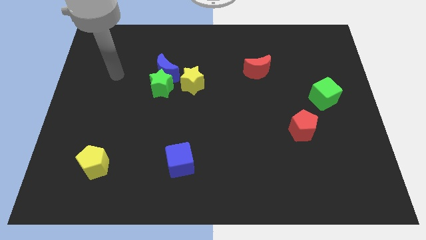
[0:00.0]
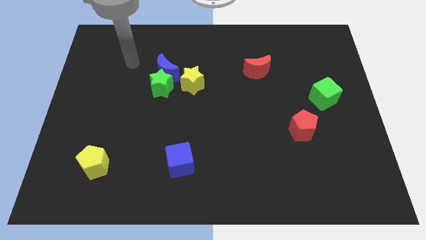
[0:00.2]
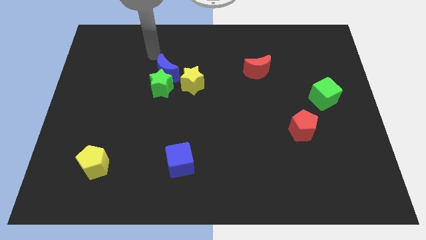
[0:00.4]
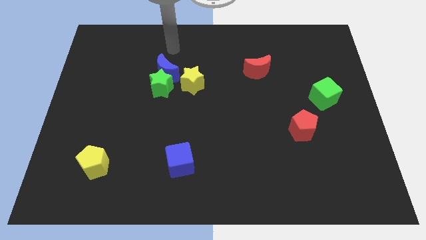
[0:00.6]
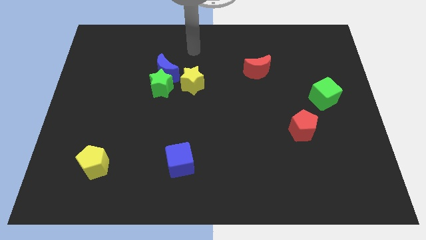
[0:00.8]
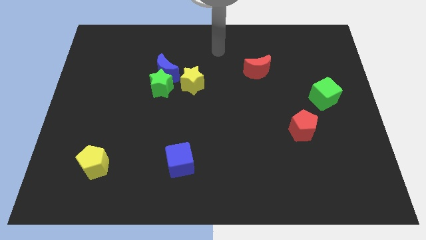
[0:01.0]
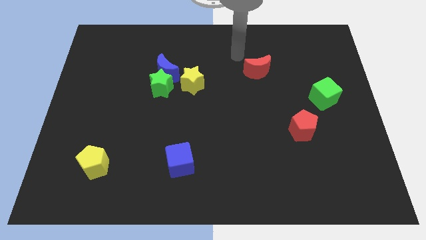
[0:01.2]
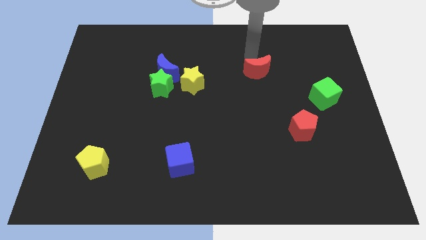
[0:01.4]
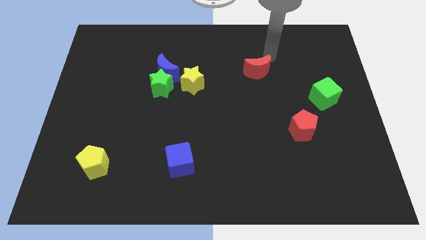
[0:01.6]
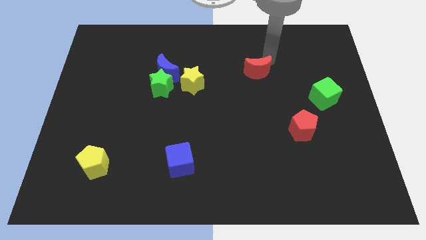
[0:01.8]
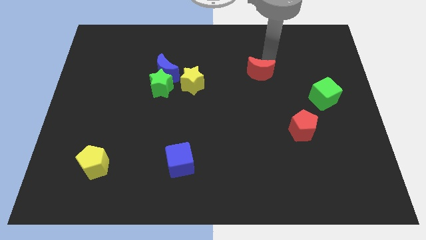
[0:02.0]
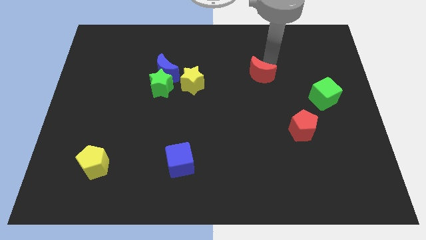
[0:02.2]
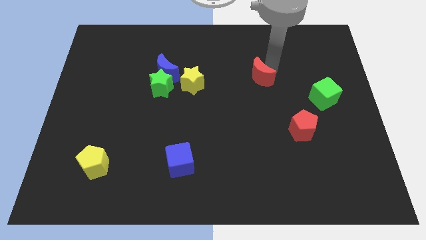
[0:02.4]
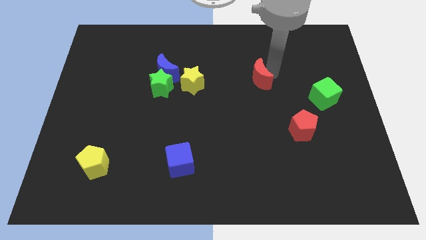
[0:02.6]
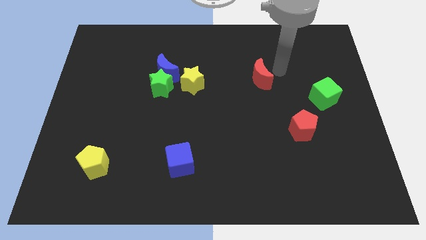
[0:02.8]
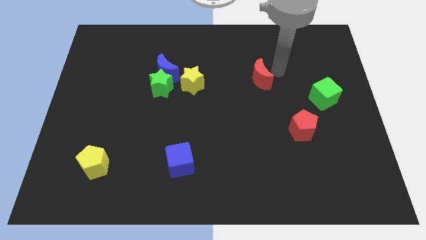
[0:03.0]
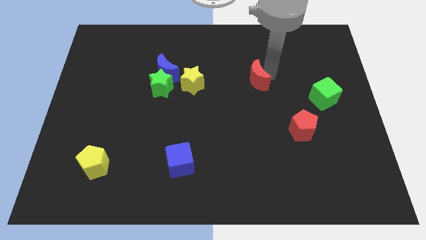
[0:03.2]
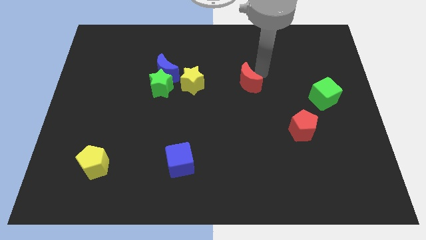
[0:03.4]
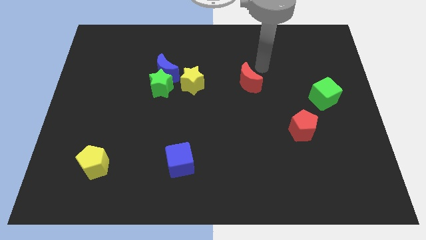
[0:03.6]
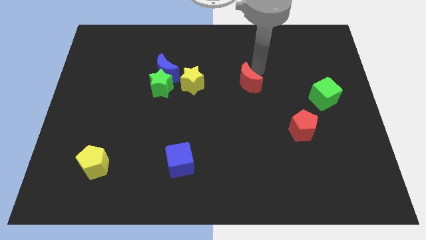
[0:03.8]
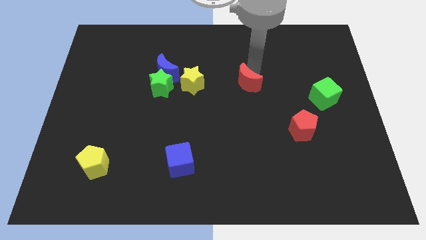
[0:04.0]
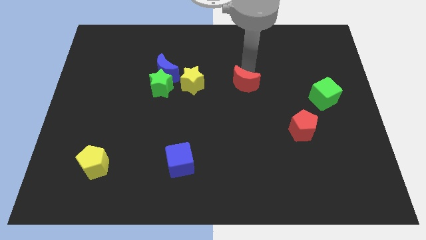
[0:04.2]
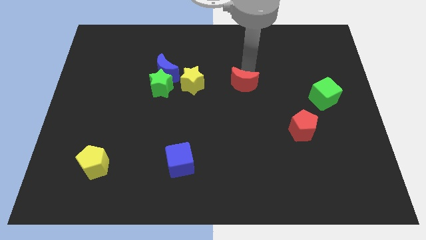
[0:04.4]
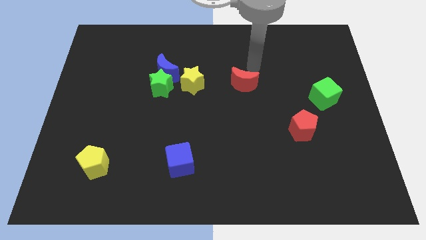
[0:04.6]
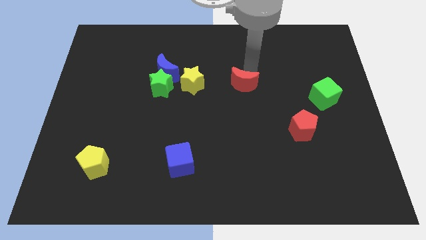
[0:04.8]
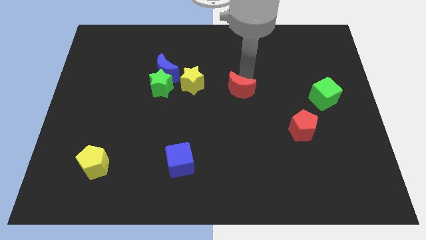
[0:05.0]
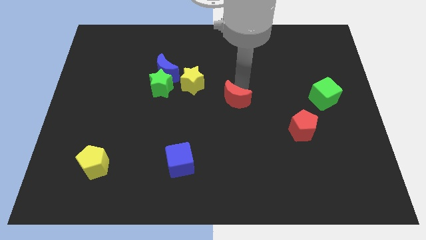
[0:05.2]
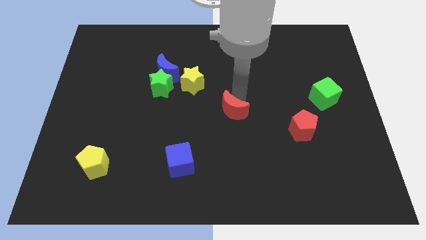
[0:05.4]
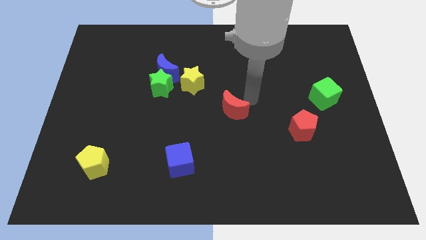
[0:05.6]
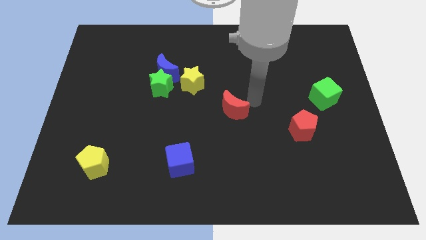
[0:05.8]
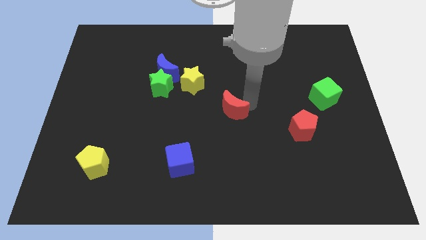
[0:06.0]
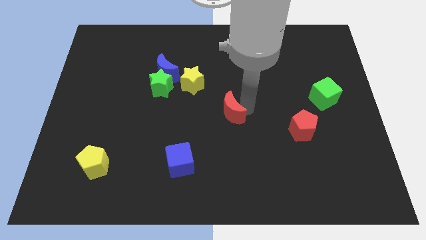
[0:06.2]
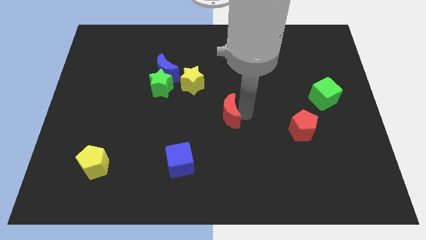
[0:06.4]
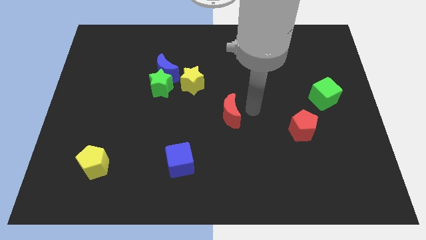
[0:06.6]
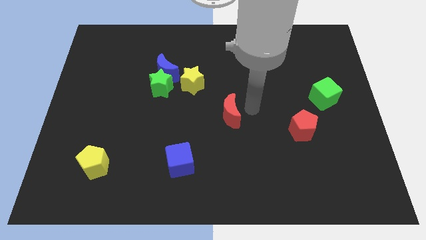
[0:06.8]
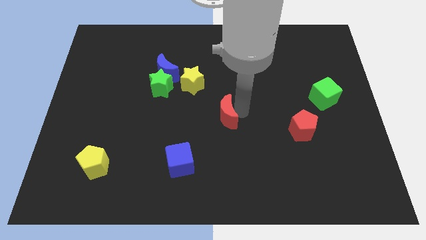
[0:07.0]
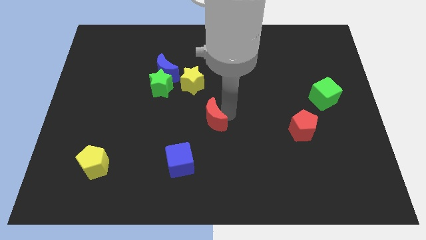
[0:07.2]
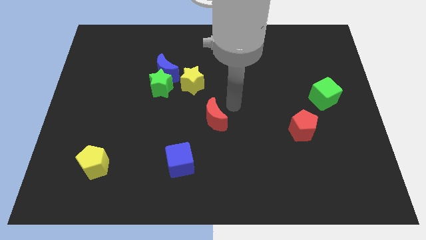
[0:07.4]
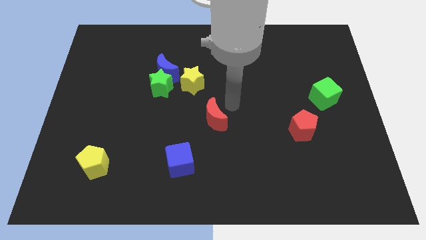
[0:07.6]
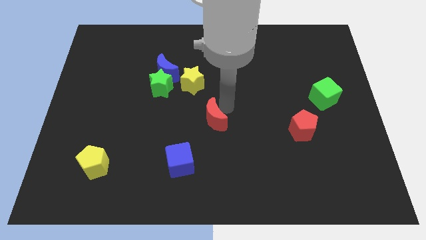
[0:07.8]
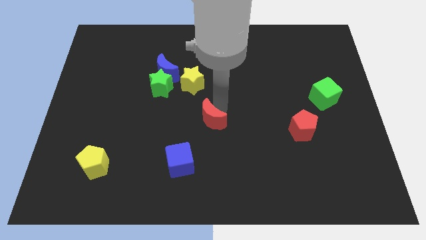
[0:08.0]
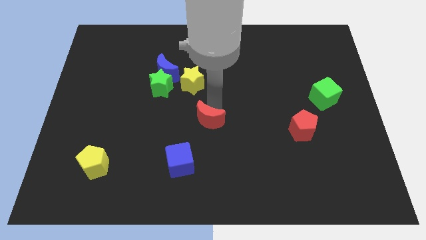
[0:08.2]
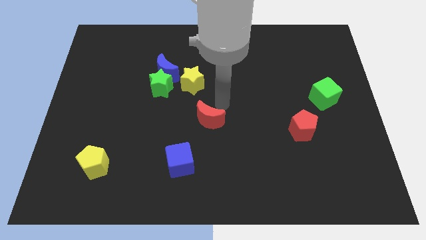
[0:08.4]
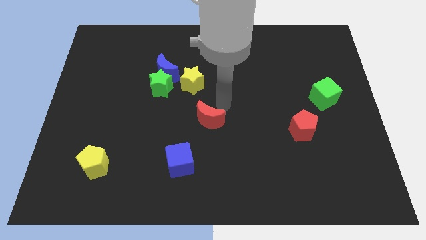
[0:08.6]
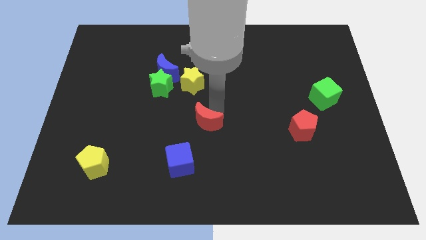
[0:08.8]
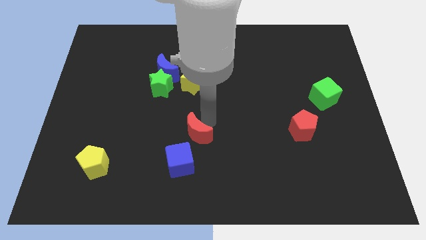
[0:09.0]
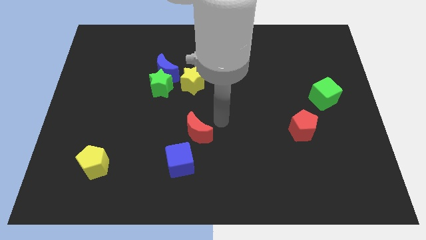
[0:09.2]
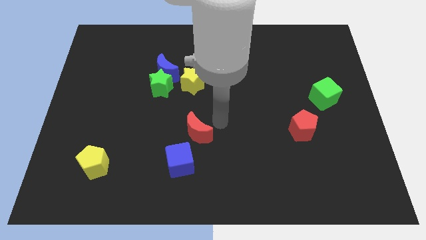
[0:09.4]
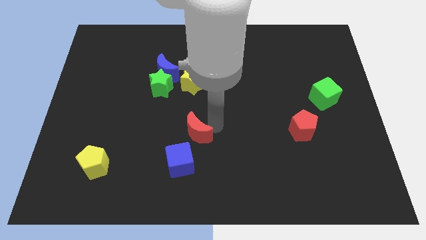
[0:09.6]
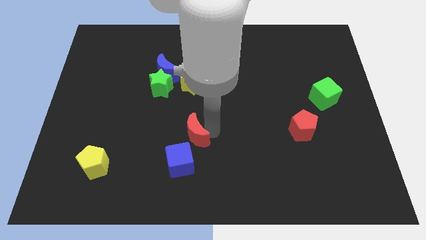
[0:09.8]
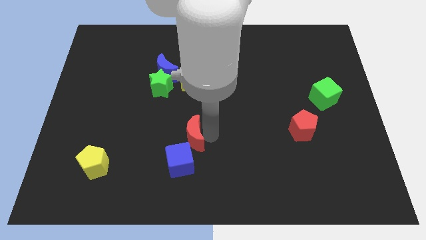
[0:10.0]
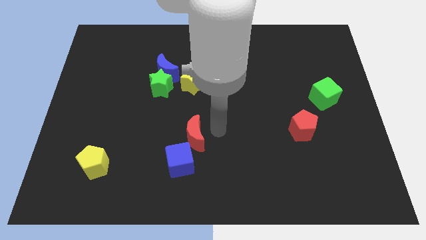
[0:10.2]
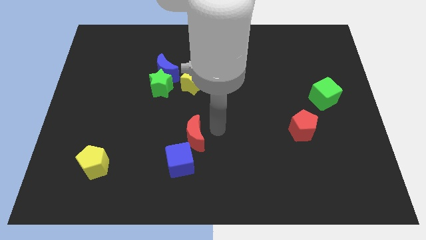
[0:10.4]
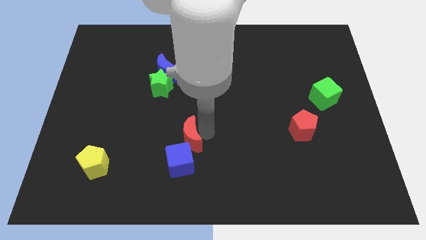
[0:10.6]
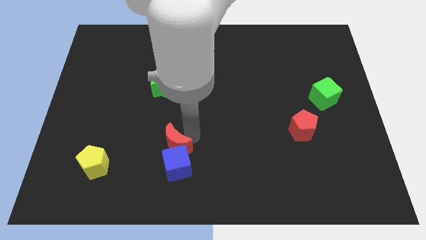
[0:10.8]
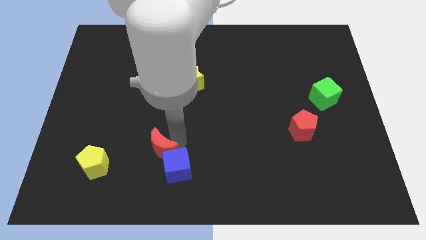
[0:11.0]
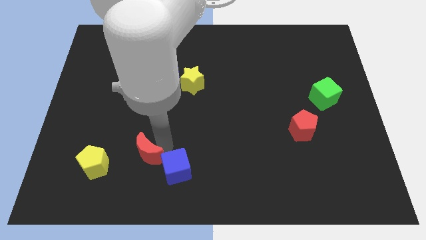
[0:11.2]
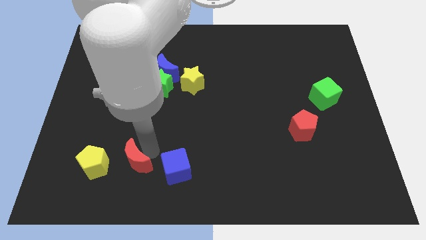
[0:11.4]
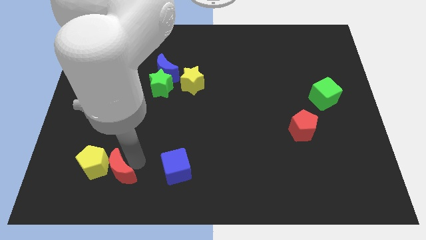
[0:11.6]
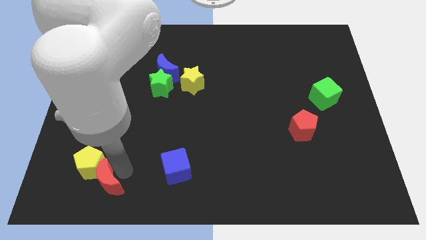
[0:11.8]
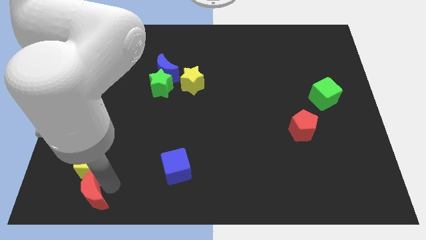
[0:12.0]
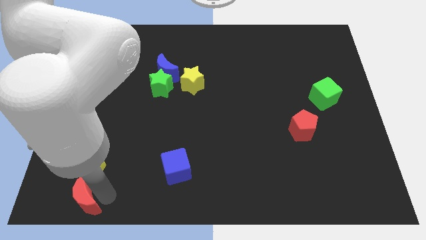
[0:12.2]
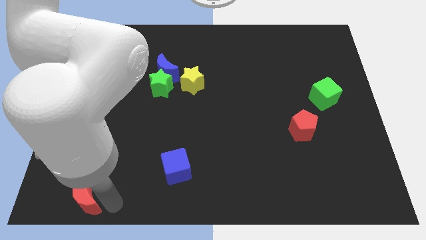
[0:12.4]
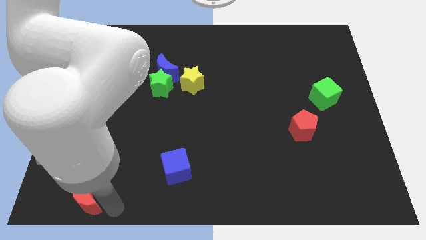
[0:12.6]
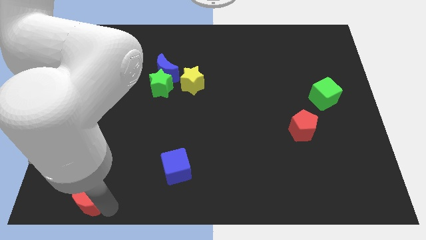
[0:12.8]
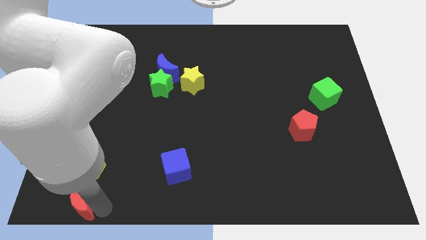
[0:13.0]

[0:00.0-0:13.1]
slide the red moon to the bottom left corner
